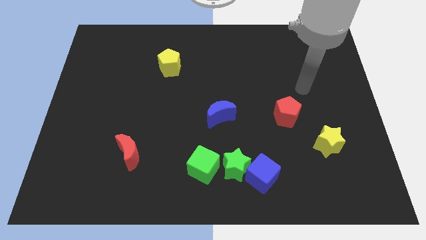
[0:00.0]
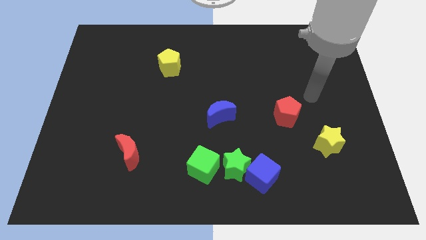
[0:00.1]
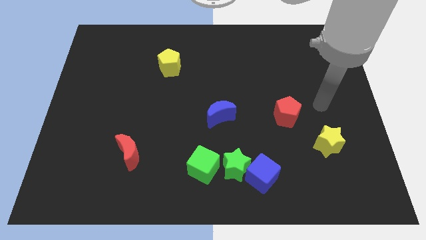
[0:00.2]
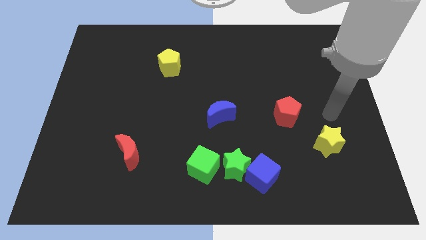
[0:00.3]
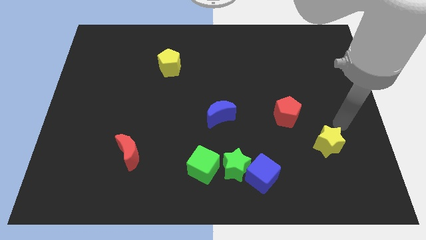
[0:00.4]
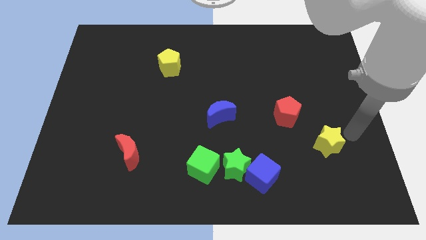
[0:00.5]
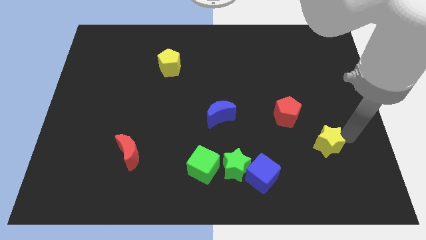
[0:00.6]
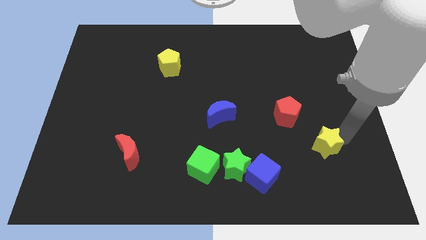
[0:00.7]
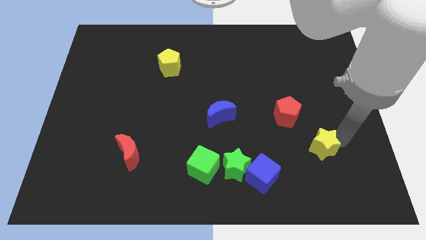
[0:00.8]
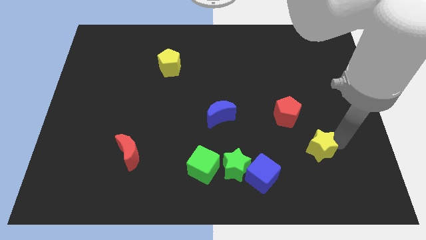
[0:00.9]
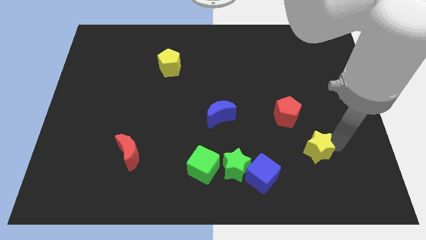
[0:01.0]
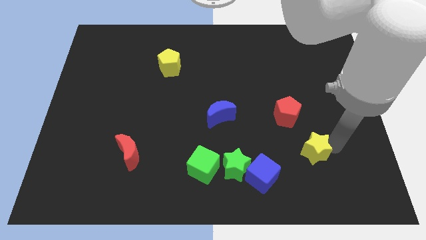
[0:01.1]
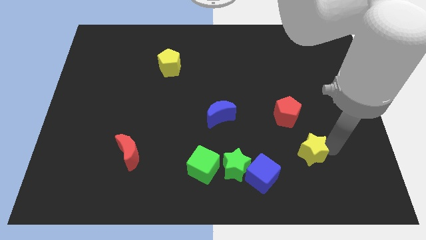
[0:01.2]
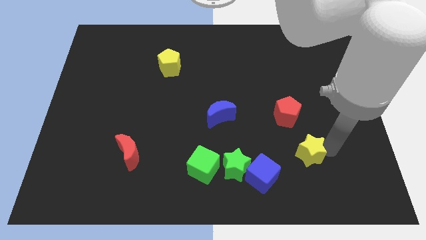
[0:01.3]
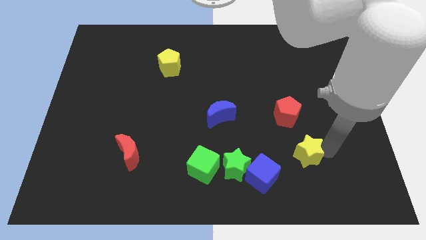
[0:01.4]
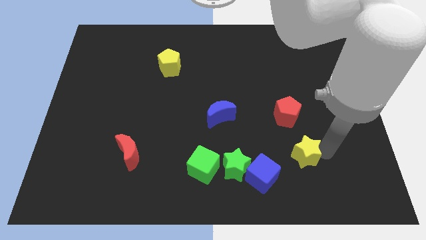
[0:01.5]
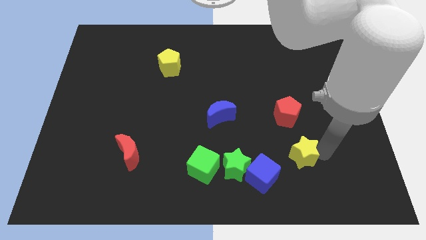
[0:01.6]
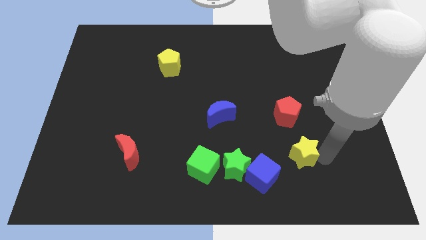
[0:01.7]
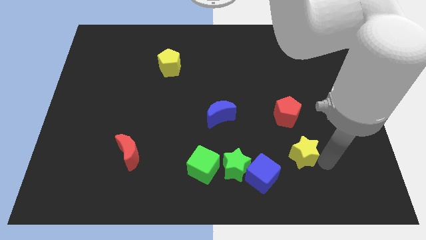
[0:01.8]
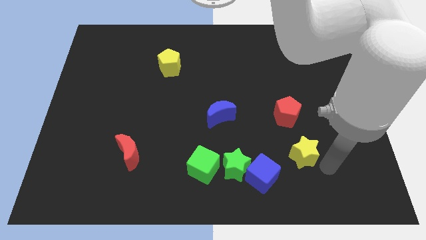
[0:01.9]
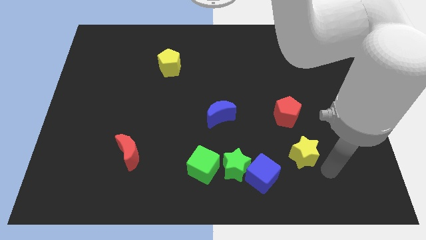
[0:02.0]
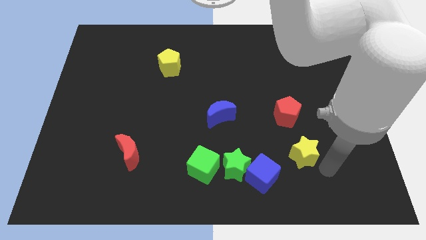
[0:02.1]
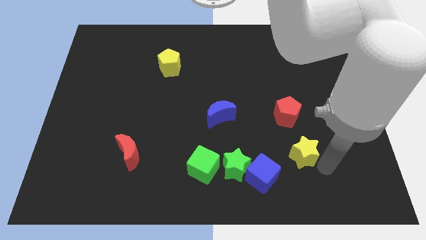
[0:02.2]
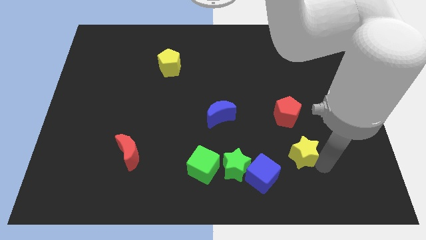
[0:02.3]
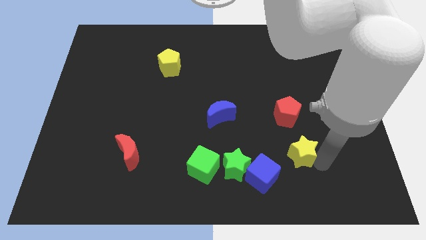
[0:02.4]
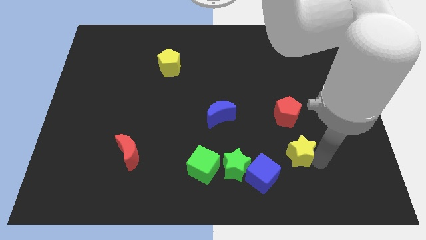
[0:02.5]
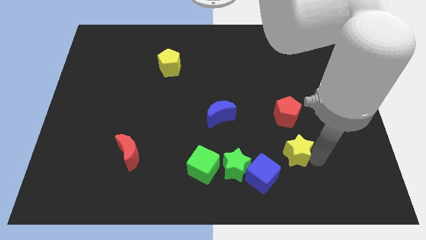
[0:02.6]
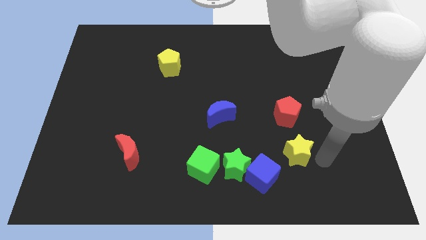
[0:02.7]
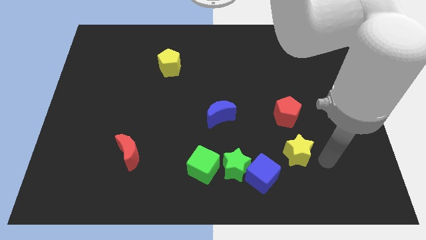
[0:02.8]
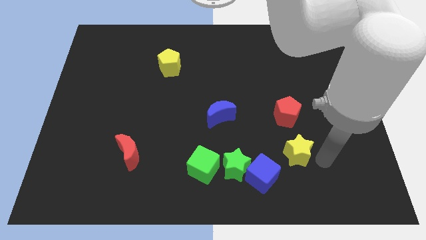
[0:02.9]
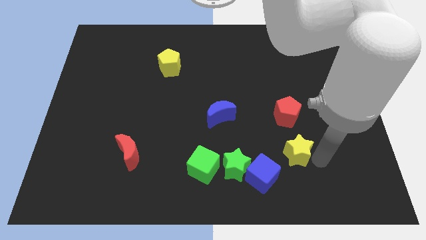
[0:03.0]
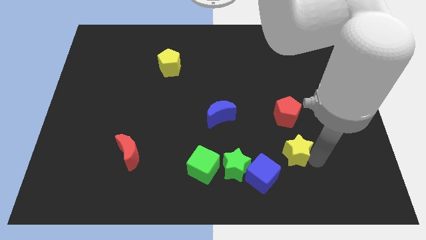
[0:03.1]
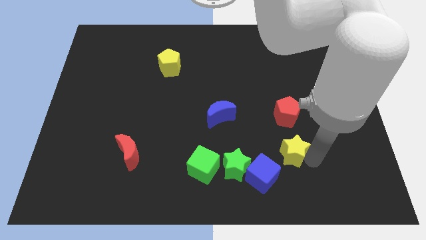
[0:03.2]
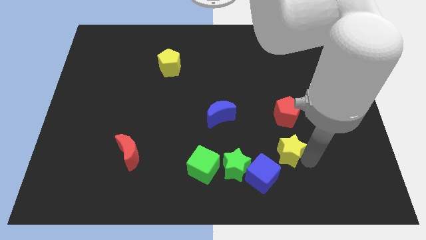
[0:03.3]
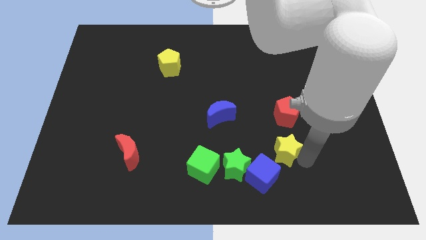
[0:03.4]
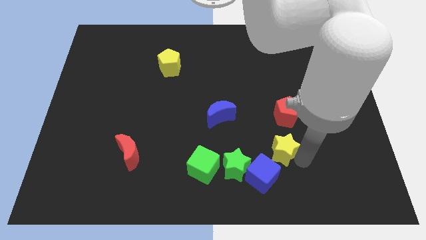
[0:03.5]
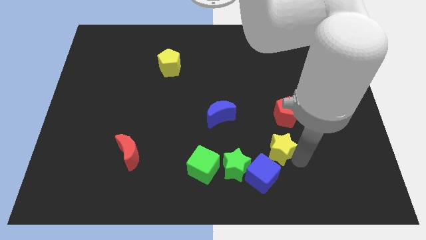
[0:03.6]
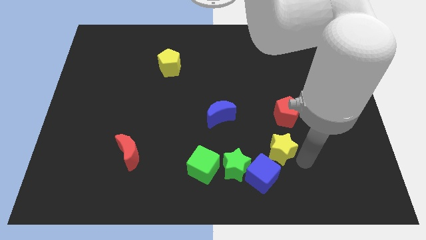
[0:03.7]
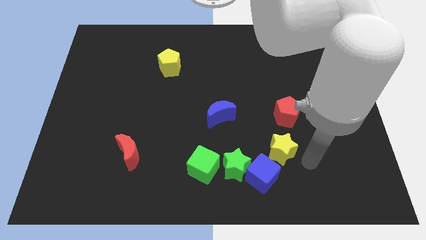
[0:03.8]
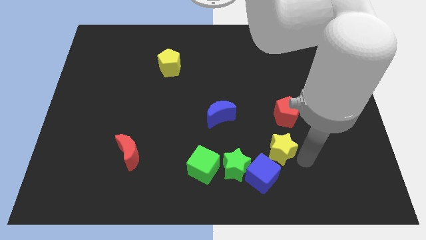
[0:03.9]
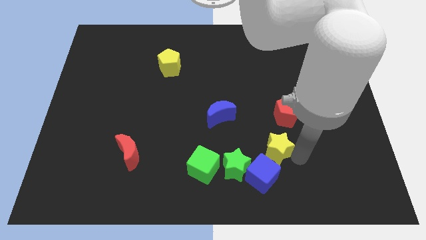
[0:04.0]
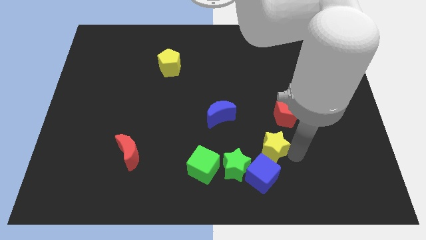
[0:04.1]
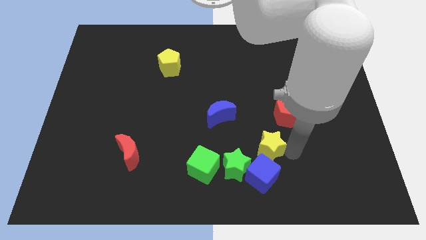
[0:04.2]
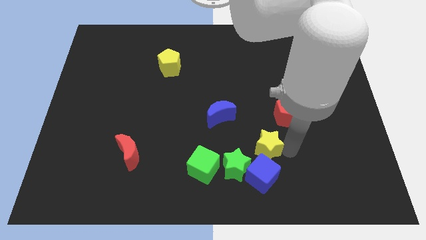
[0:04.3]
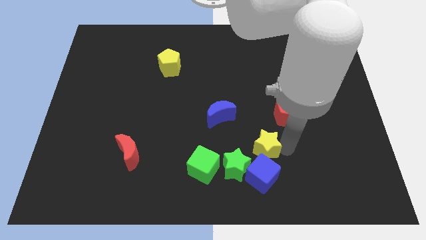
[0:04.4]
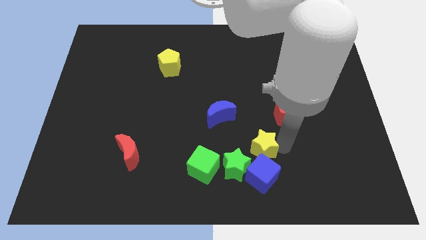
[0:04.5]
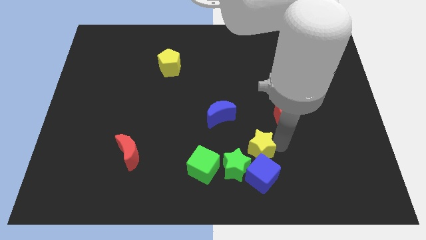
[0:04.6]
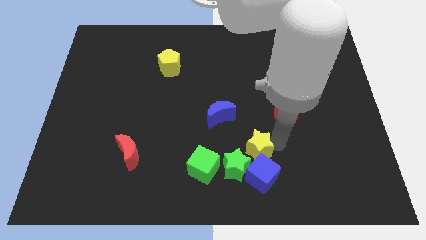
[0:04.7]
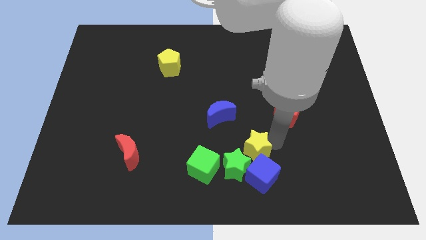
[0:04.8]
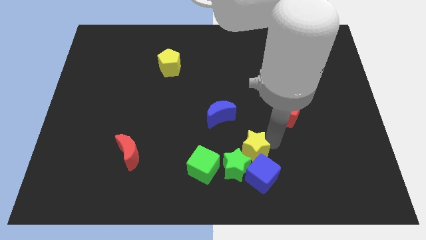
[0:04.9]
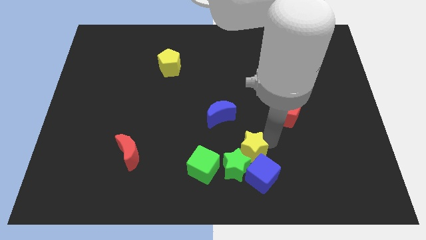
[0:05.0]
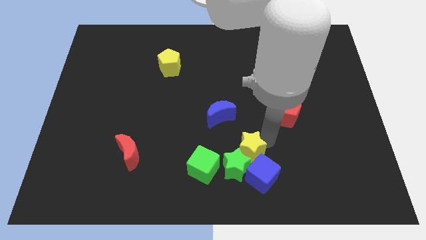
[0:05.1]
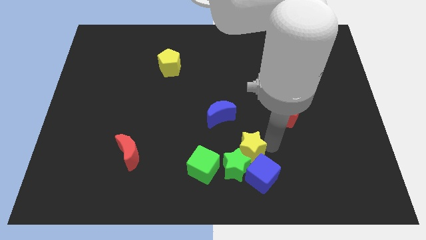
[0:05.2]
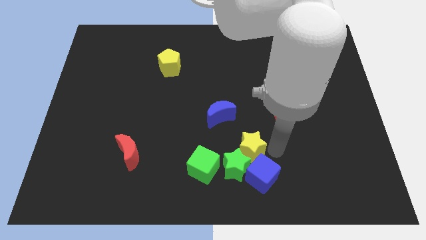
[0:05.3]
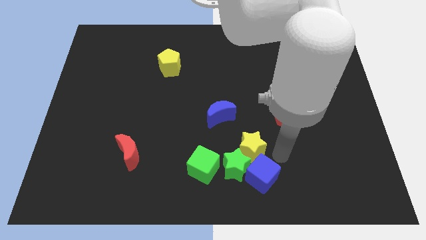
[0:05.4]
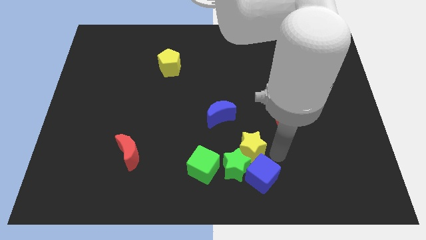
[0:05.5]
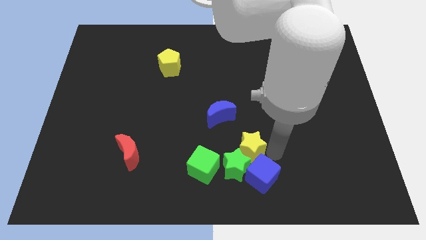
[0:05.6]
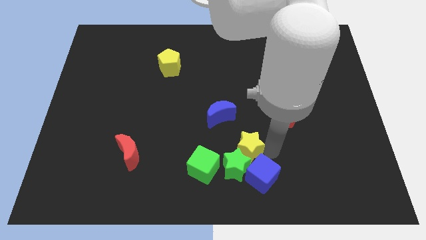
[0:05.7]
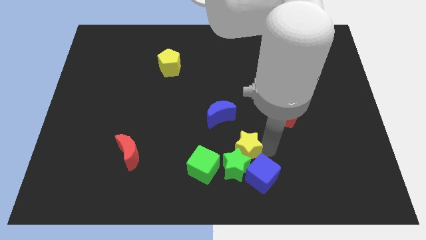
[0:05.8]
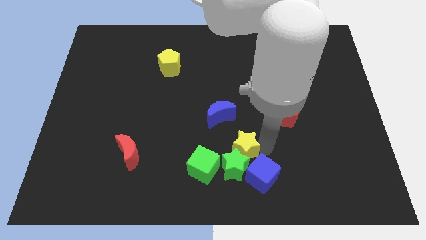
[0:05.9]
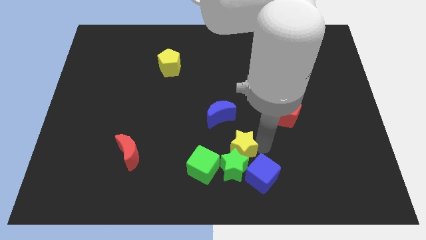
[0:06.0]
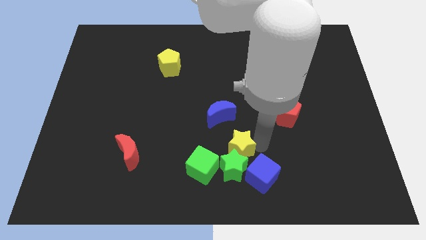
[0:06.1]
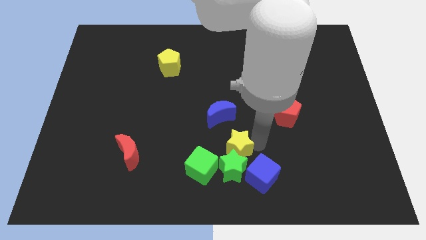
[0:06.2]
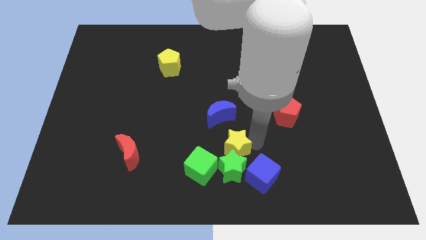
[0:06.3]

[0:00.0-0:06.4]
push the yellow star to the left

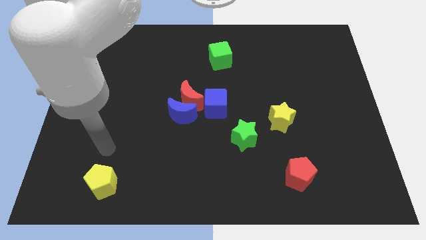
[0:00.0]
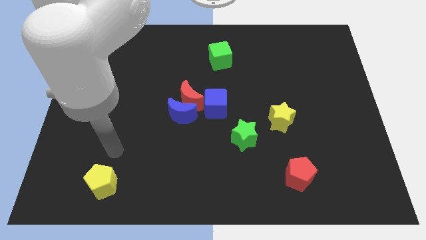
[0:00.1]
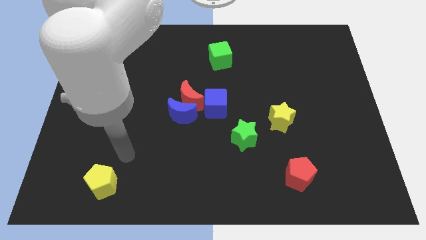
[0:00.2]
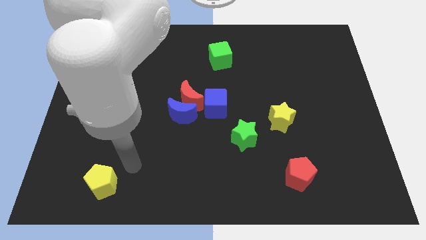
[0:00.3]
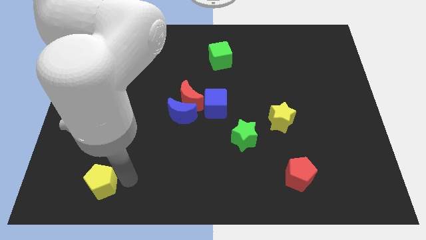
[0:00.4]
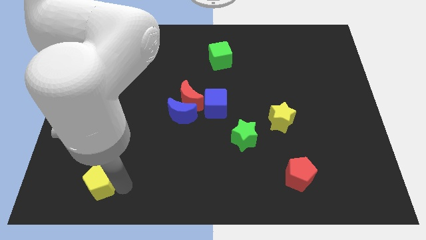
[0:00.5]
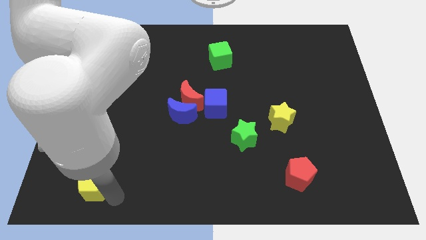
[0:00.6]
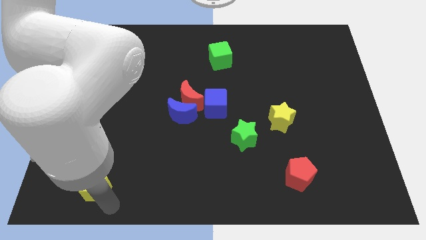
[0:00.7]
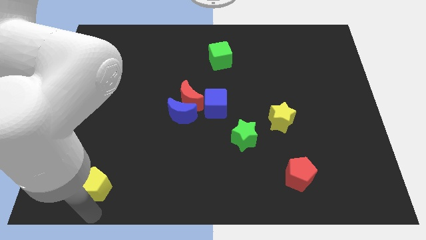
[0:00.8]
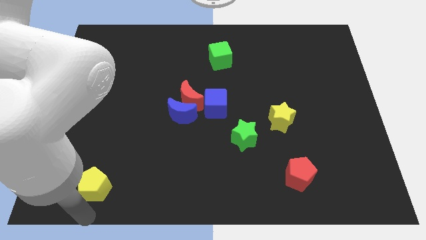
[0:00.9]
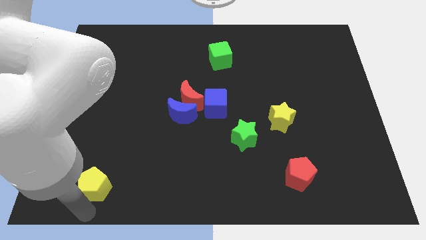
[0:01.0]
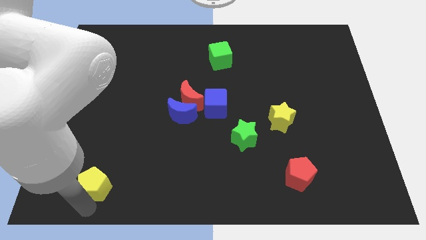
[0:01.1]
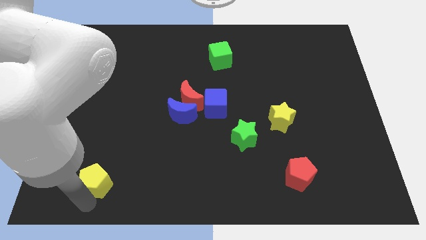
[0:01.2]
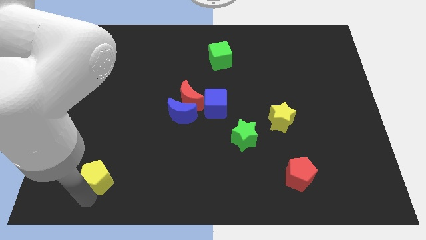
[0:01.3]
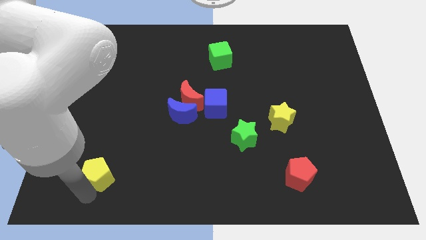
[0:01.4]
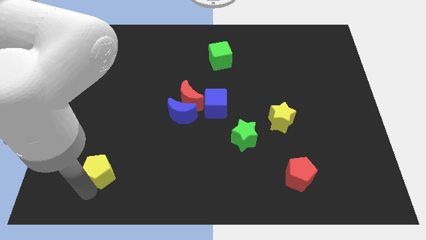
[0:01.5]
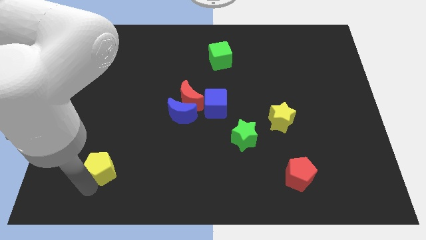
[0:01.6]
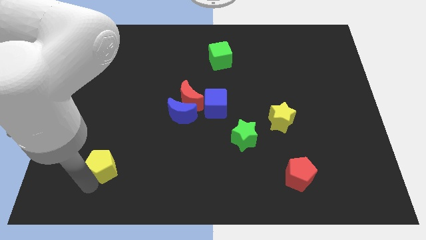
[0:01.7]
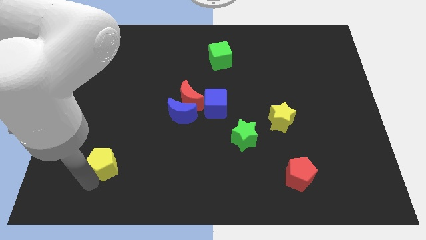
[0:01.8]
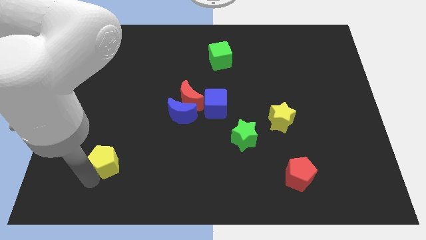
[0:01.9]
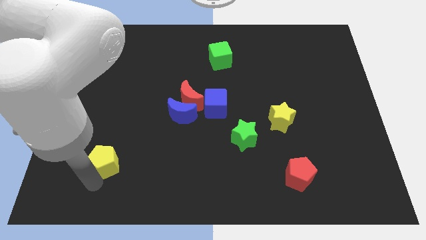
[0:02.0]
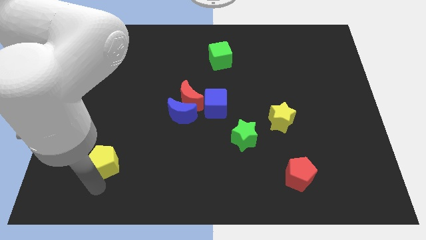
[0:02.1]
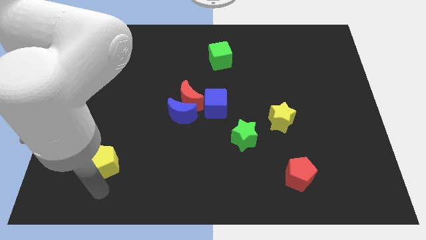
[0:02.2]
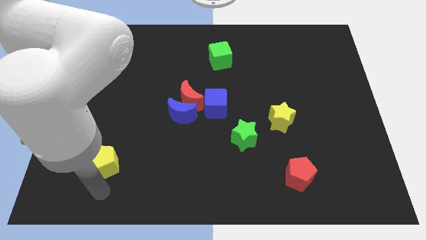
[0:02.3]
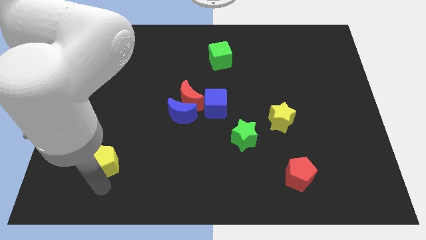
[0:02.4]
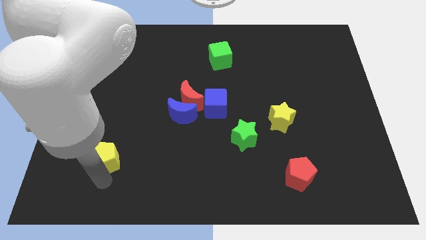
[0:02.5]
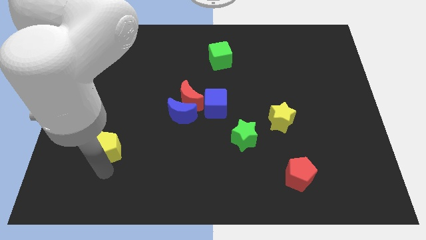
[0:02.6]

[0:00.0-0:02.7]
slide the yellow pentagon upwards slightly
